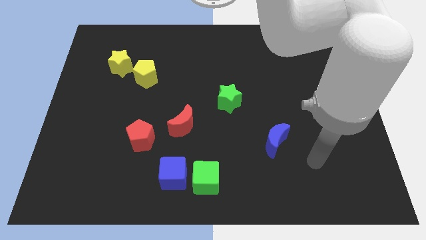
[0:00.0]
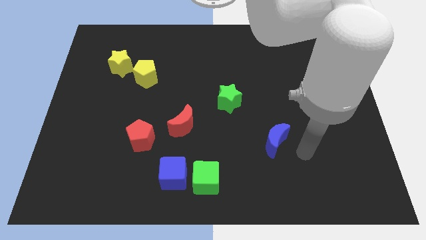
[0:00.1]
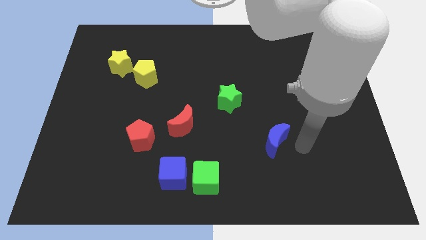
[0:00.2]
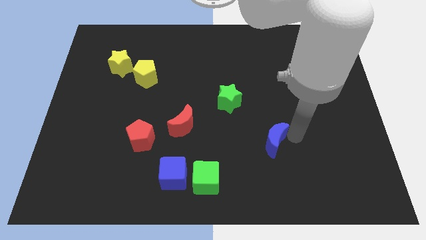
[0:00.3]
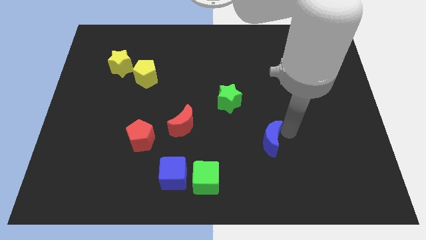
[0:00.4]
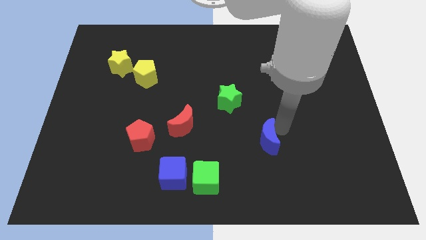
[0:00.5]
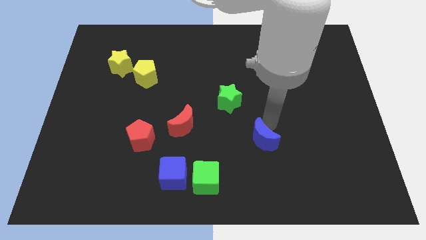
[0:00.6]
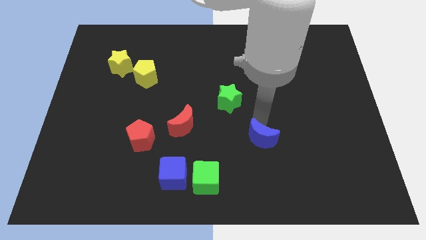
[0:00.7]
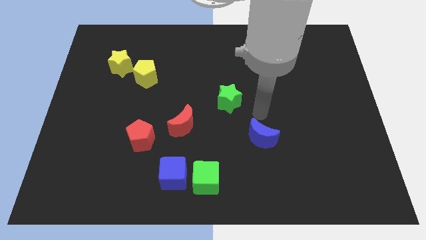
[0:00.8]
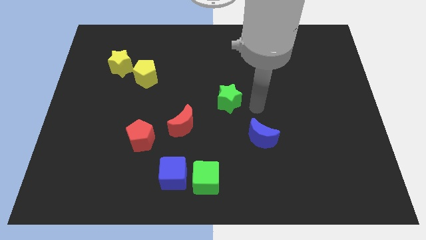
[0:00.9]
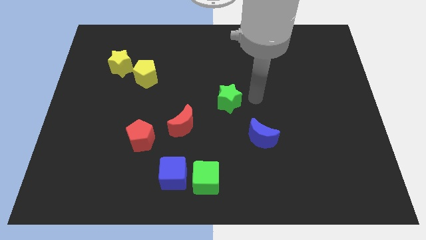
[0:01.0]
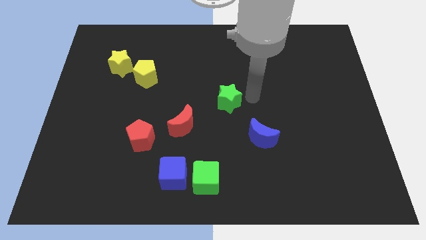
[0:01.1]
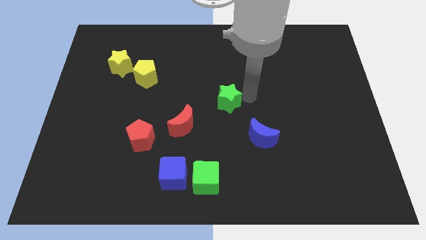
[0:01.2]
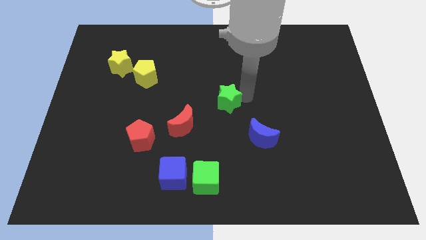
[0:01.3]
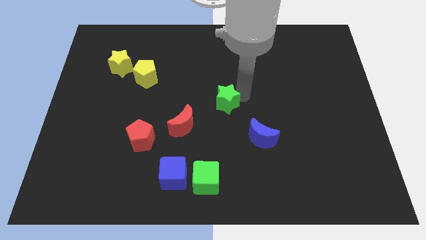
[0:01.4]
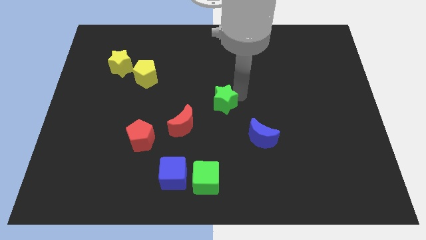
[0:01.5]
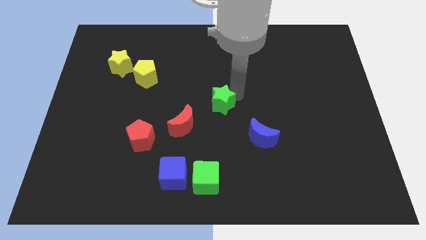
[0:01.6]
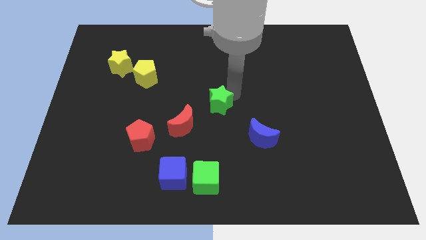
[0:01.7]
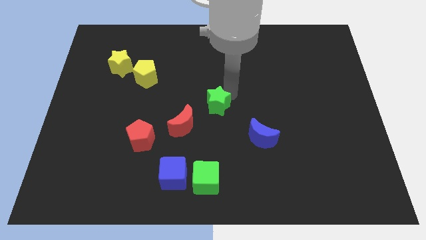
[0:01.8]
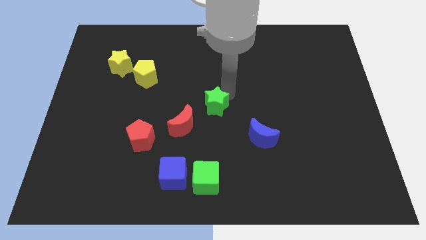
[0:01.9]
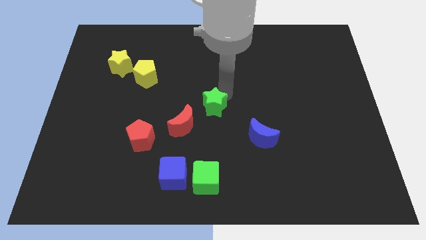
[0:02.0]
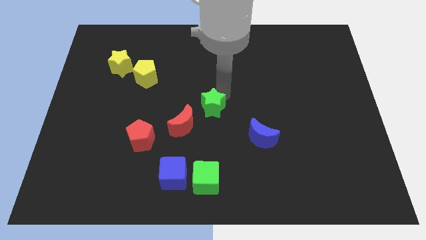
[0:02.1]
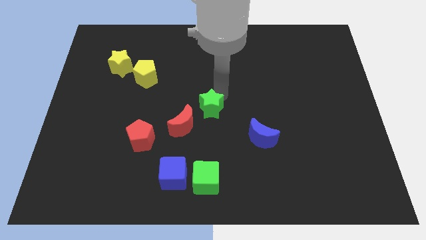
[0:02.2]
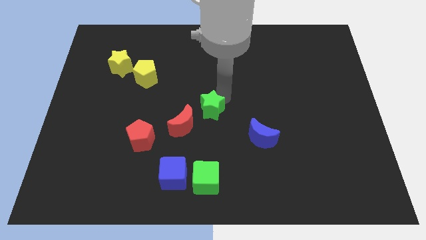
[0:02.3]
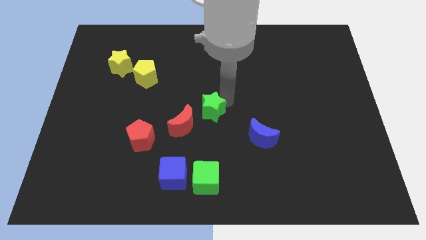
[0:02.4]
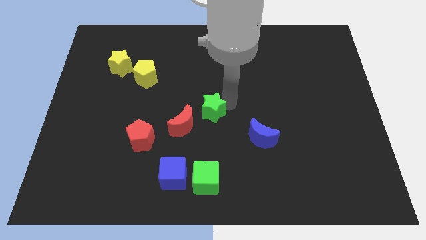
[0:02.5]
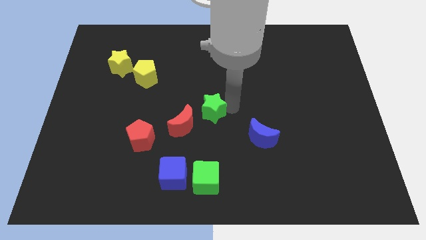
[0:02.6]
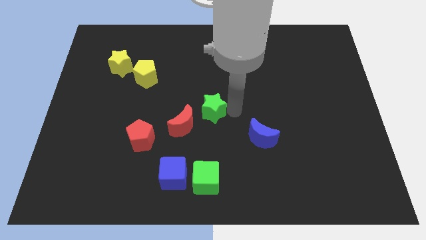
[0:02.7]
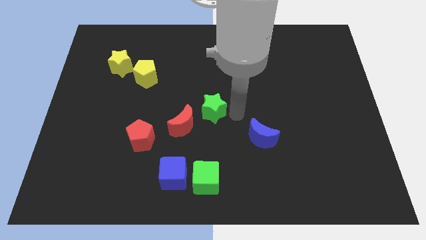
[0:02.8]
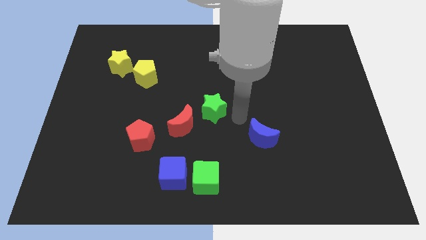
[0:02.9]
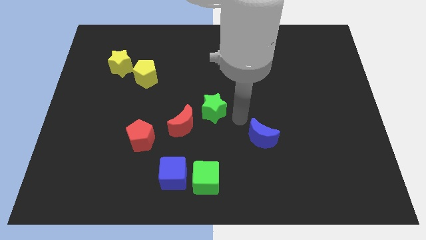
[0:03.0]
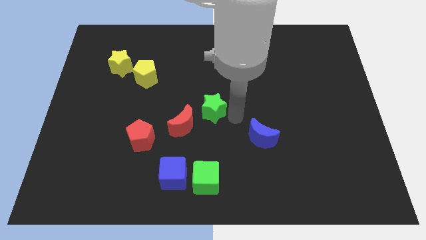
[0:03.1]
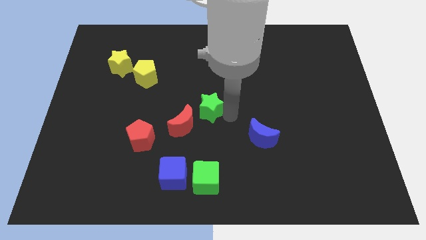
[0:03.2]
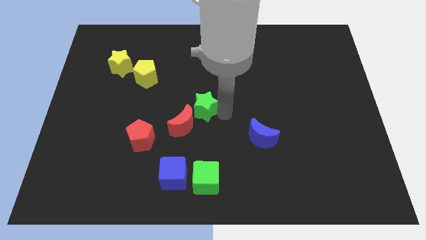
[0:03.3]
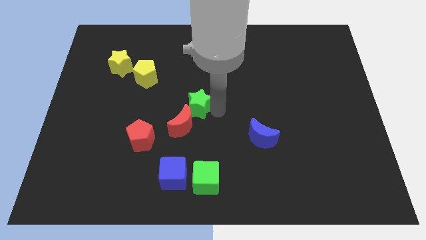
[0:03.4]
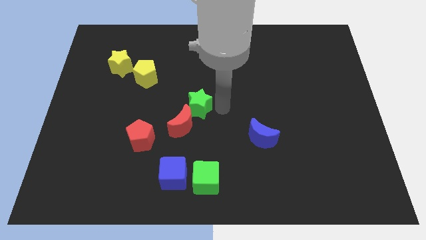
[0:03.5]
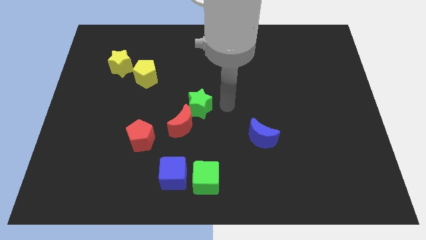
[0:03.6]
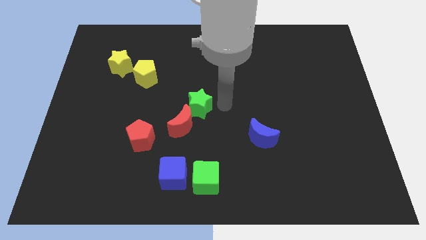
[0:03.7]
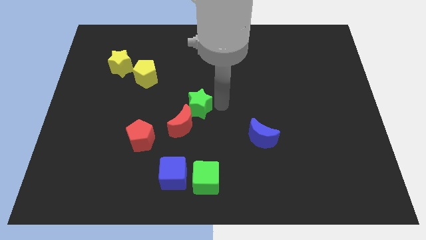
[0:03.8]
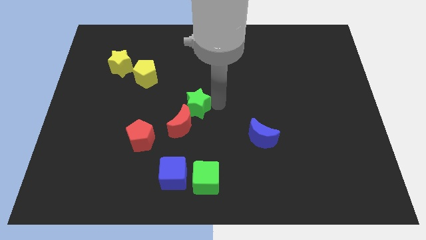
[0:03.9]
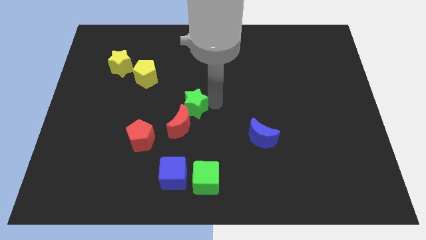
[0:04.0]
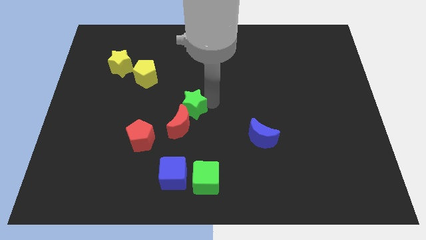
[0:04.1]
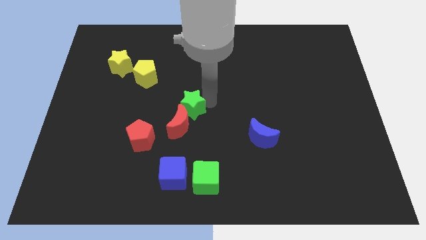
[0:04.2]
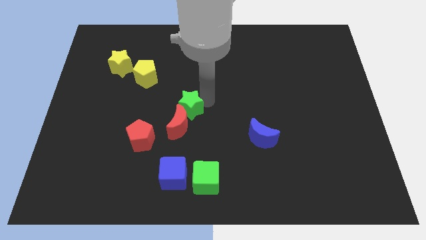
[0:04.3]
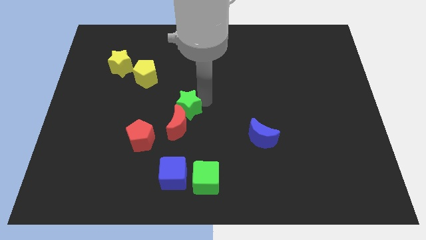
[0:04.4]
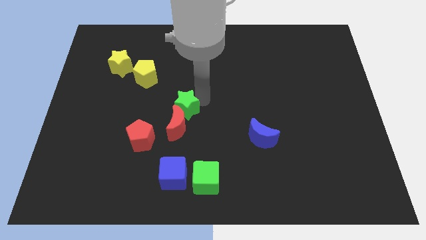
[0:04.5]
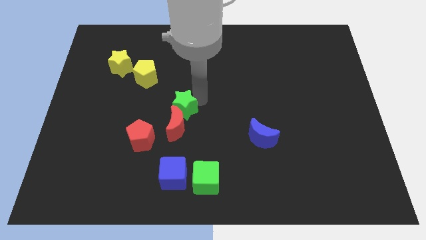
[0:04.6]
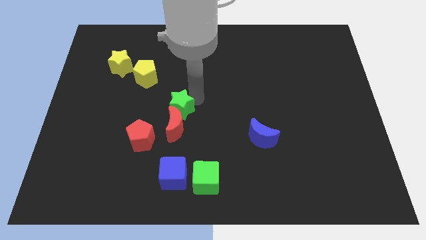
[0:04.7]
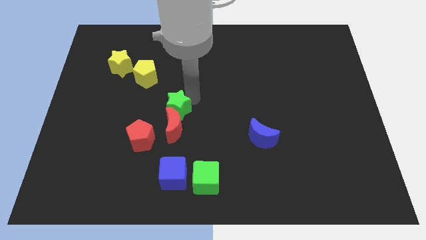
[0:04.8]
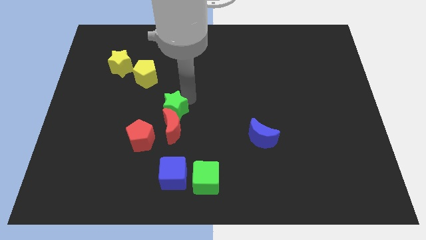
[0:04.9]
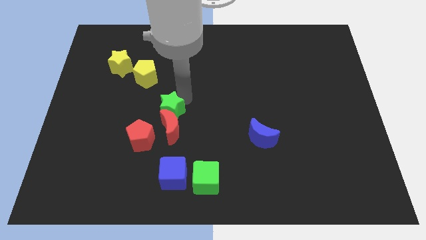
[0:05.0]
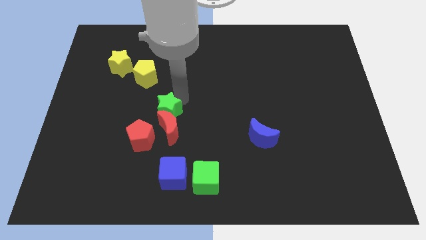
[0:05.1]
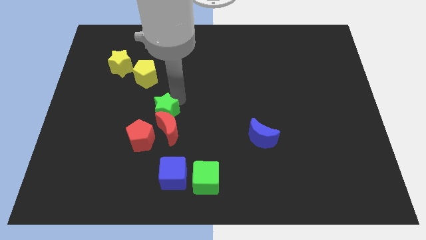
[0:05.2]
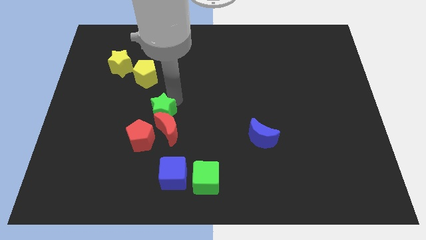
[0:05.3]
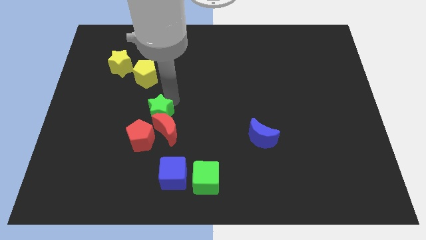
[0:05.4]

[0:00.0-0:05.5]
put the green star below the yellow pentagon

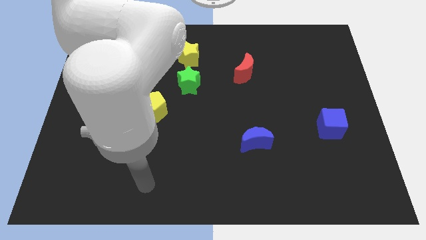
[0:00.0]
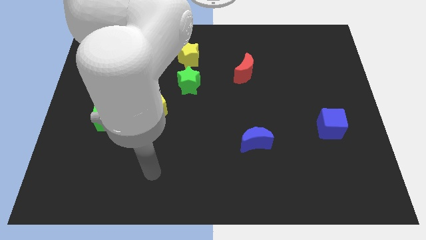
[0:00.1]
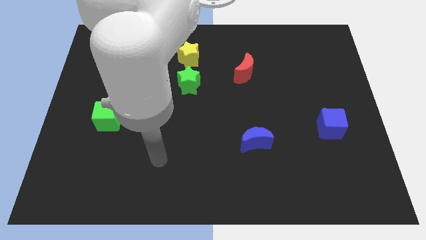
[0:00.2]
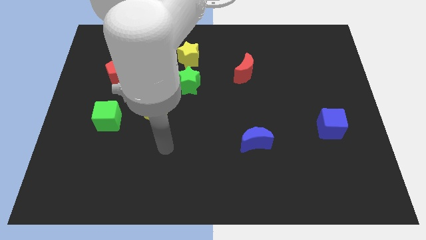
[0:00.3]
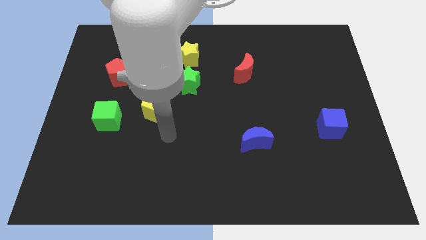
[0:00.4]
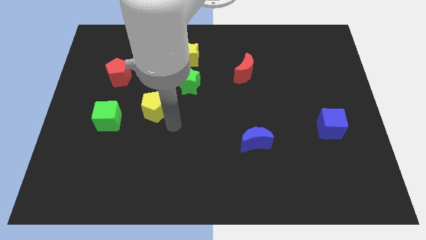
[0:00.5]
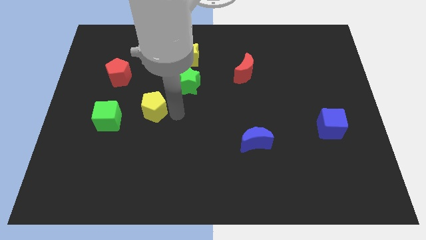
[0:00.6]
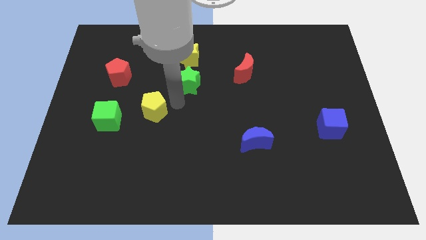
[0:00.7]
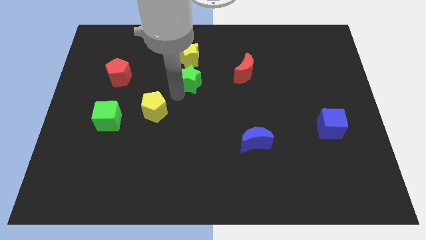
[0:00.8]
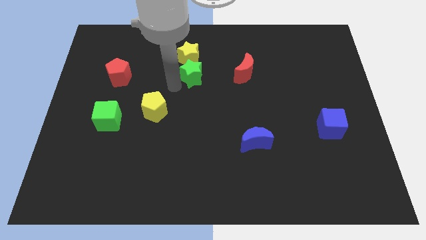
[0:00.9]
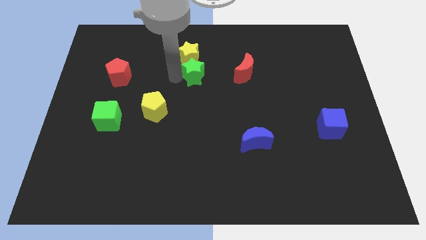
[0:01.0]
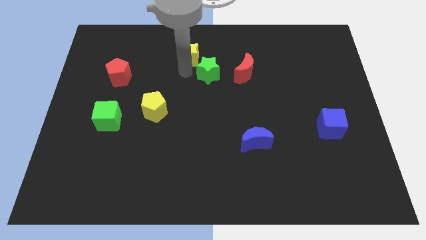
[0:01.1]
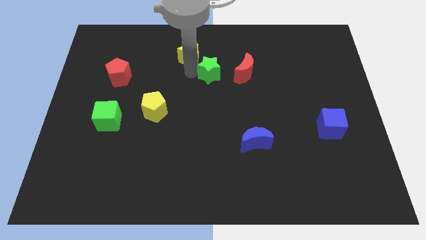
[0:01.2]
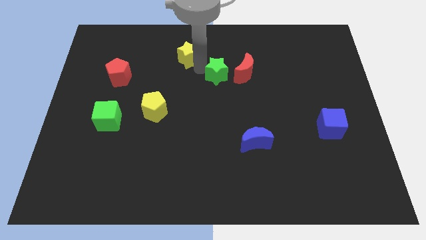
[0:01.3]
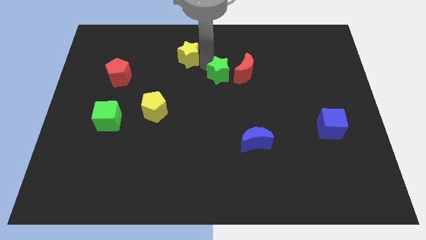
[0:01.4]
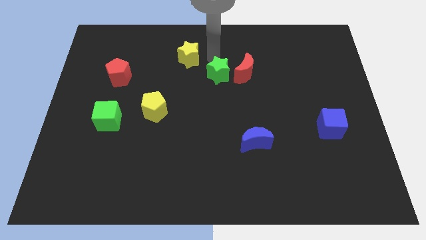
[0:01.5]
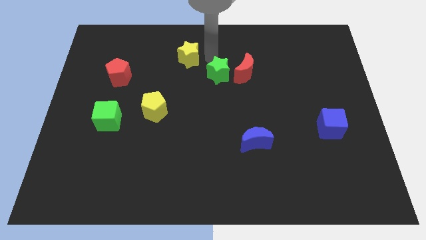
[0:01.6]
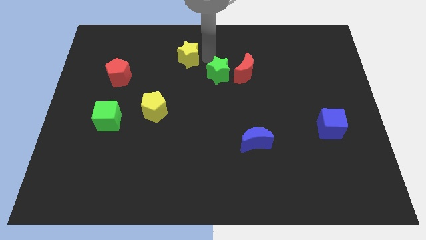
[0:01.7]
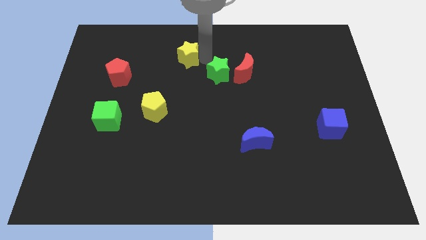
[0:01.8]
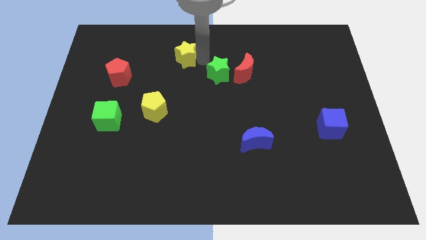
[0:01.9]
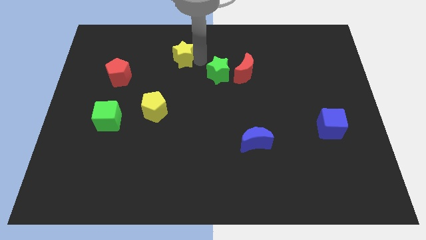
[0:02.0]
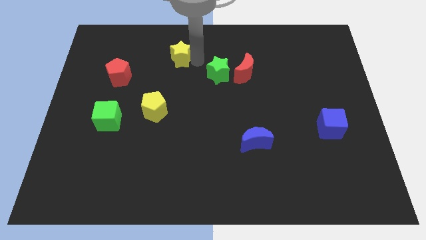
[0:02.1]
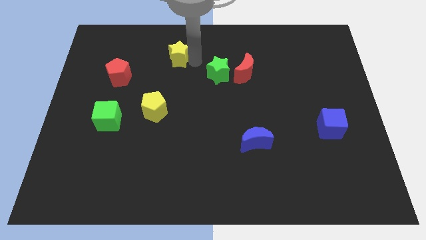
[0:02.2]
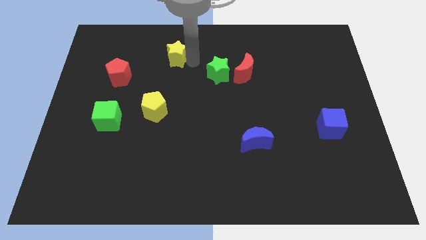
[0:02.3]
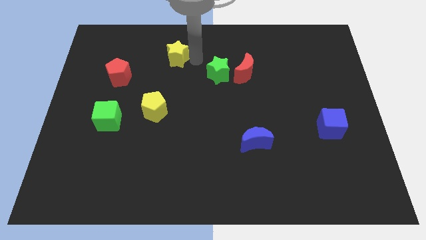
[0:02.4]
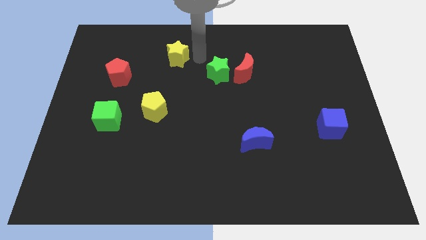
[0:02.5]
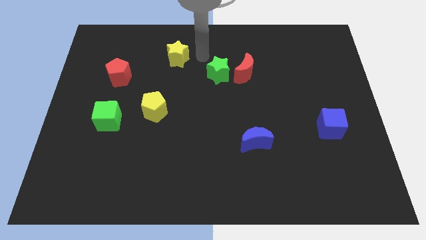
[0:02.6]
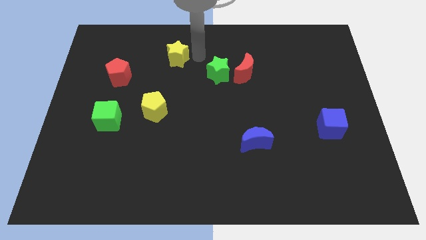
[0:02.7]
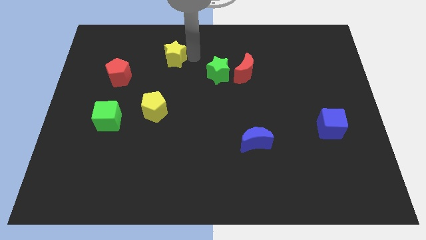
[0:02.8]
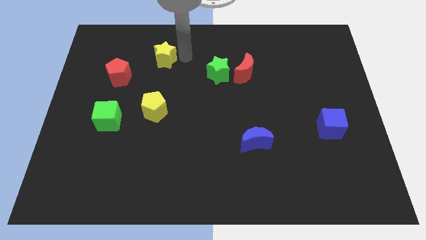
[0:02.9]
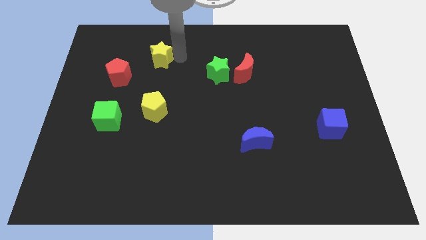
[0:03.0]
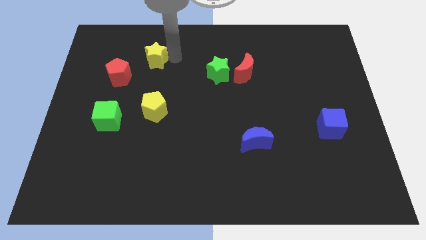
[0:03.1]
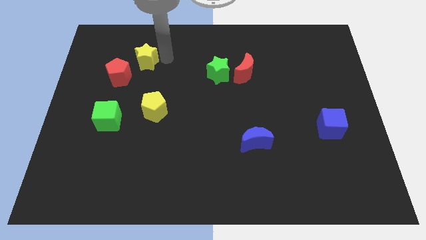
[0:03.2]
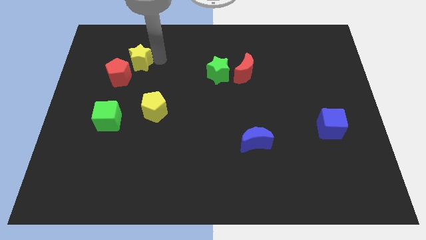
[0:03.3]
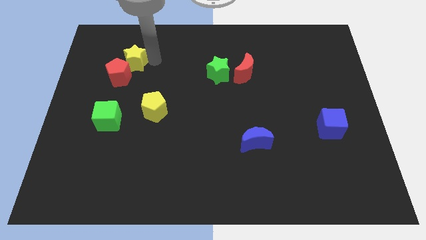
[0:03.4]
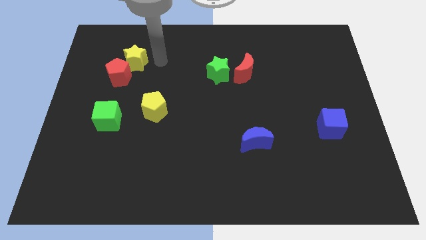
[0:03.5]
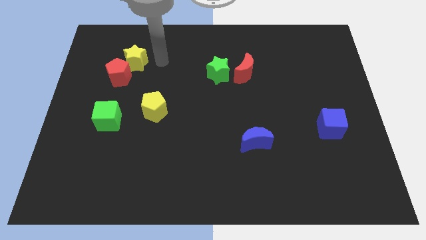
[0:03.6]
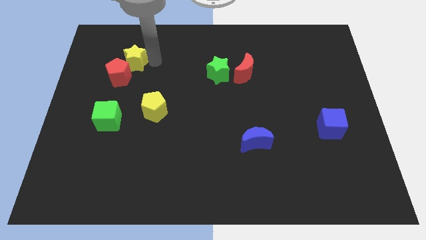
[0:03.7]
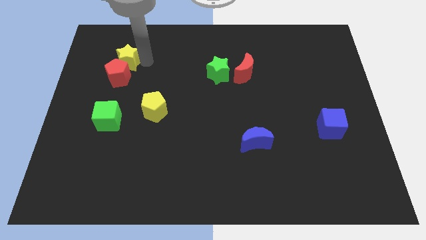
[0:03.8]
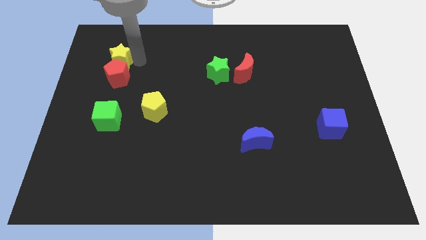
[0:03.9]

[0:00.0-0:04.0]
put the yellow star to the top left of the red pentagon
